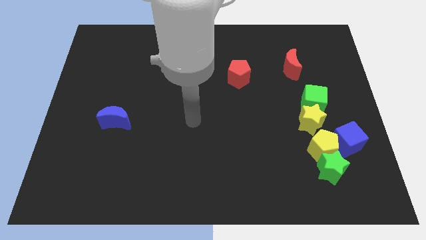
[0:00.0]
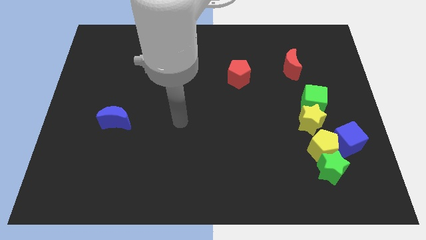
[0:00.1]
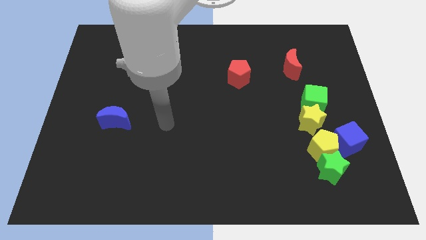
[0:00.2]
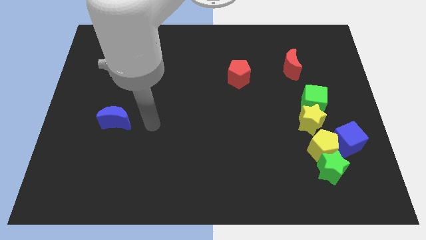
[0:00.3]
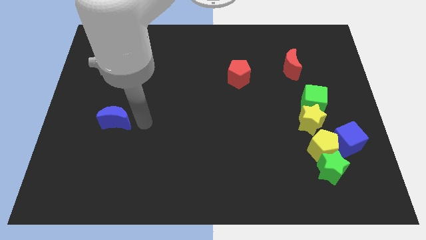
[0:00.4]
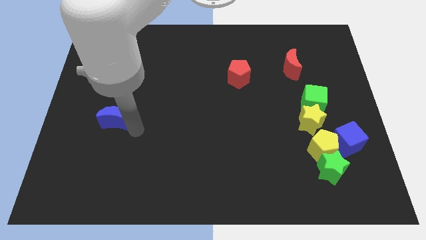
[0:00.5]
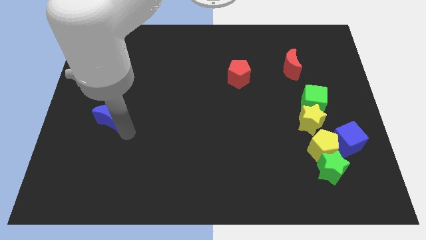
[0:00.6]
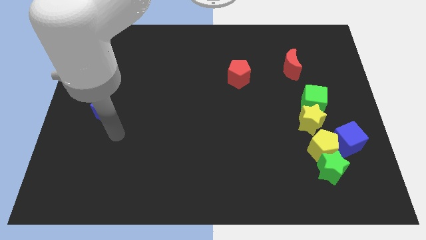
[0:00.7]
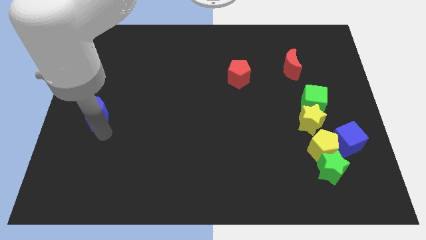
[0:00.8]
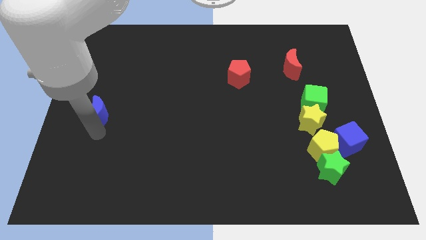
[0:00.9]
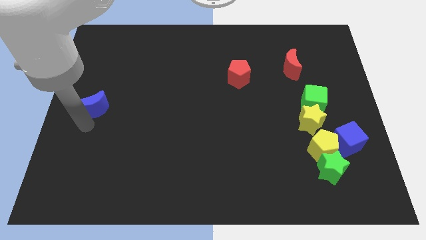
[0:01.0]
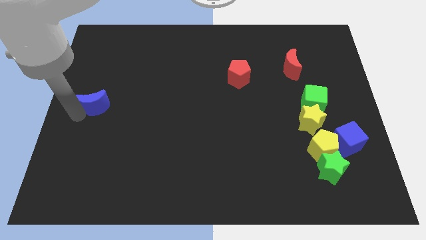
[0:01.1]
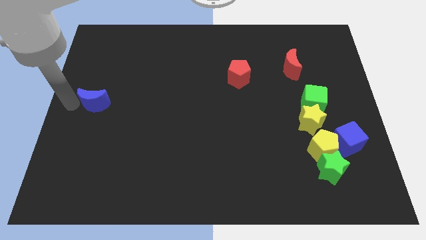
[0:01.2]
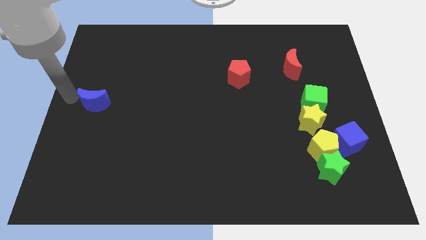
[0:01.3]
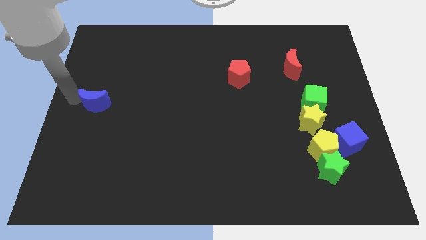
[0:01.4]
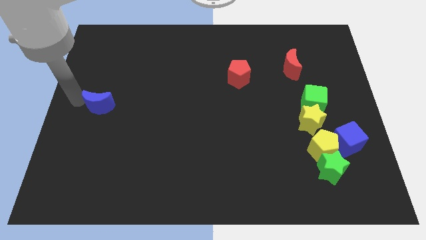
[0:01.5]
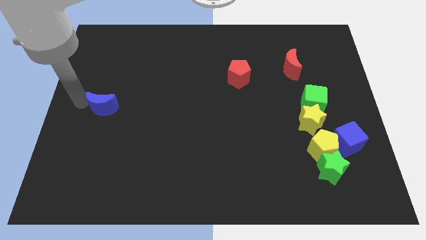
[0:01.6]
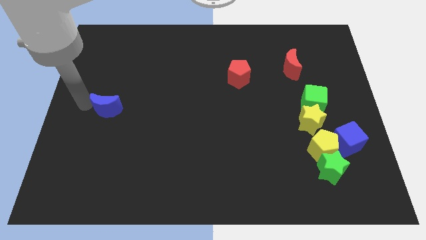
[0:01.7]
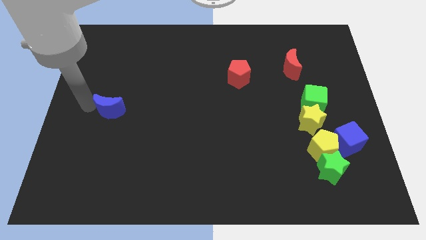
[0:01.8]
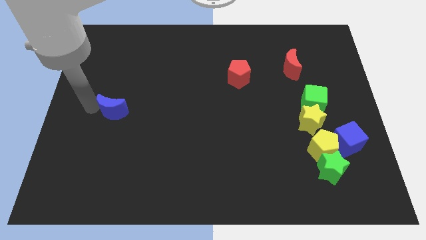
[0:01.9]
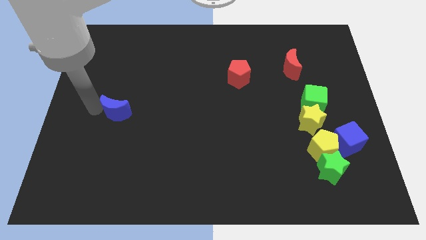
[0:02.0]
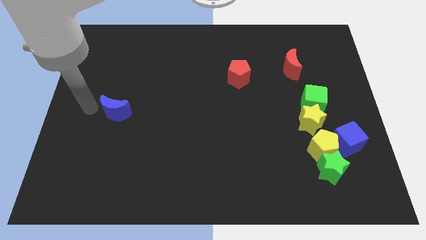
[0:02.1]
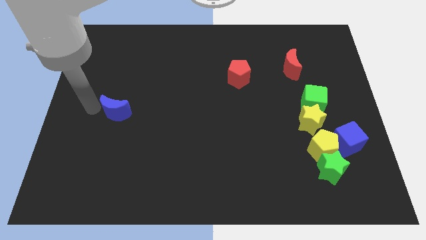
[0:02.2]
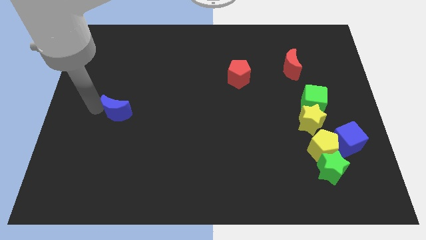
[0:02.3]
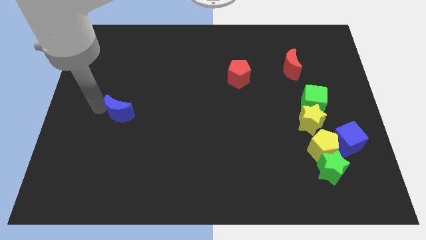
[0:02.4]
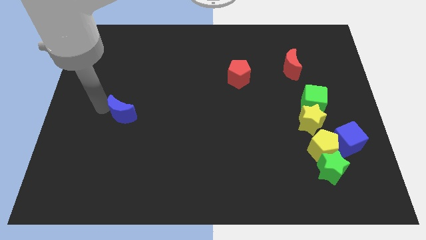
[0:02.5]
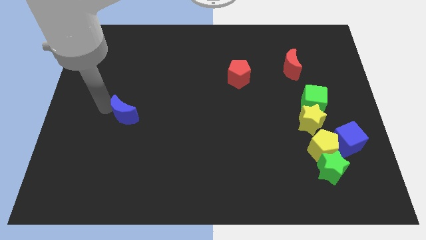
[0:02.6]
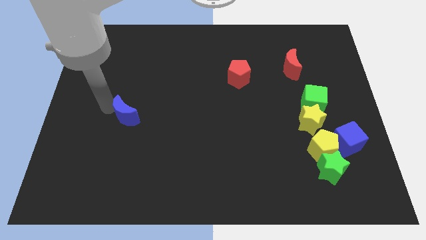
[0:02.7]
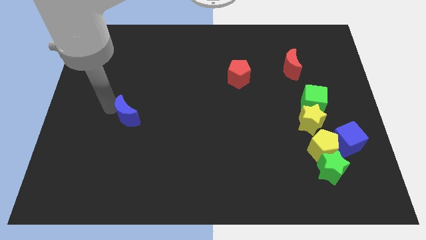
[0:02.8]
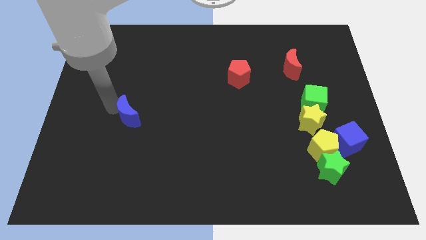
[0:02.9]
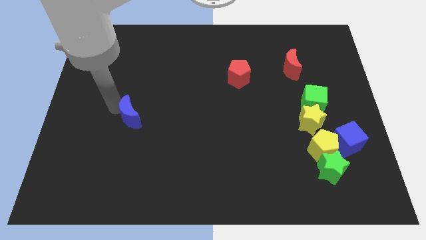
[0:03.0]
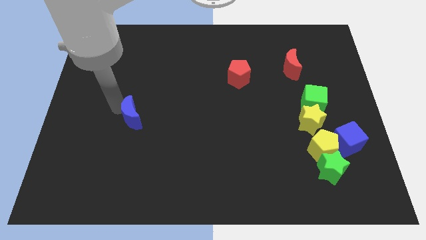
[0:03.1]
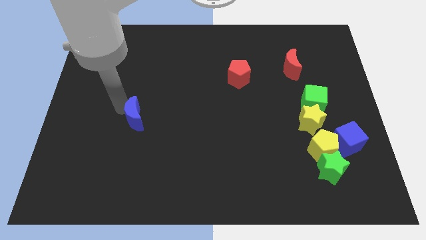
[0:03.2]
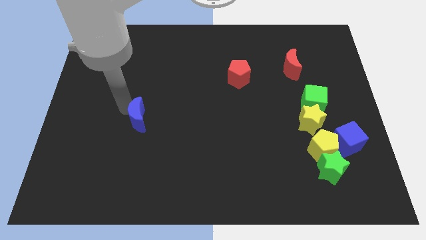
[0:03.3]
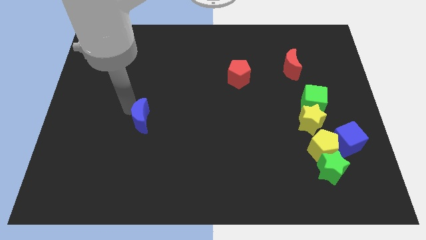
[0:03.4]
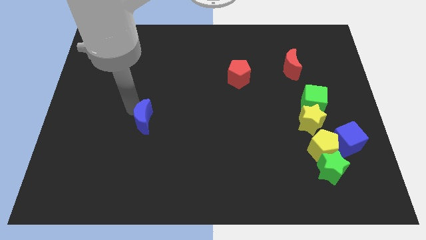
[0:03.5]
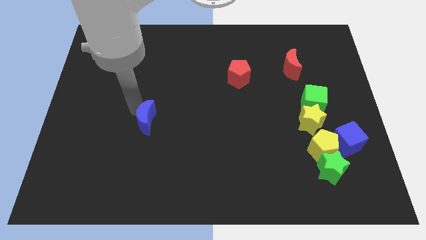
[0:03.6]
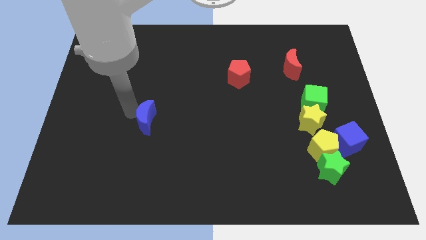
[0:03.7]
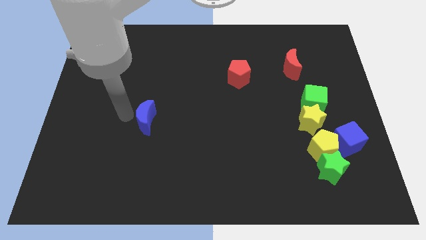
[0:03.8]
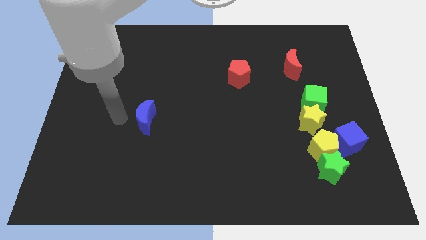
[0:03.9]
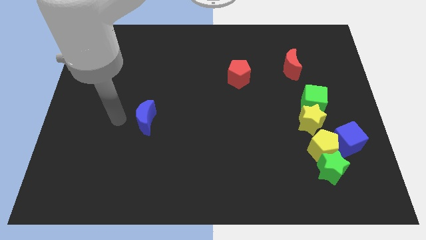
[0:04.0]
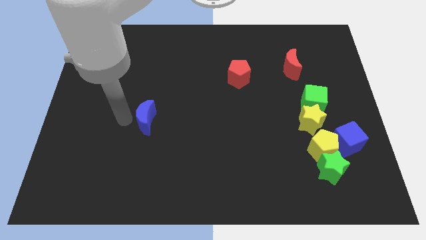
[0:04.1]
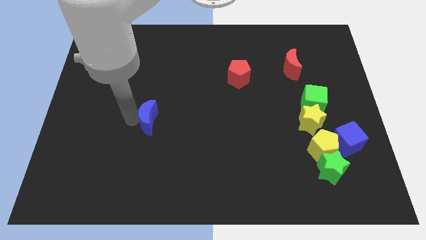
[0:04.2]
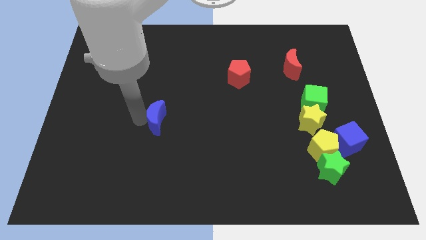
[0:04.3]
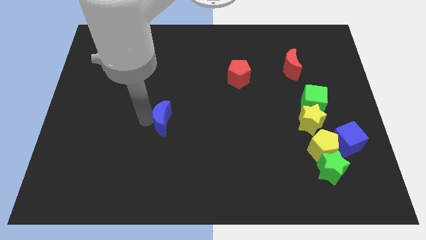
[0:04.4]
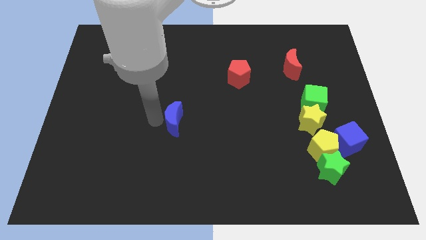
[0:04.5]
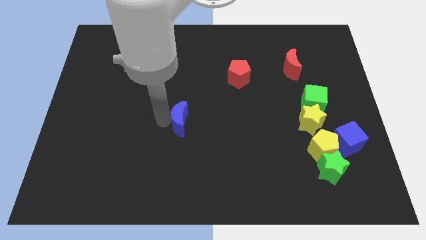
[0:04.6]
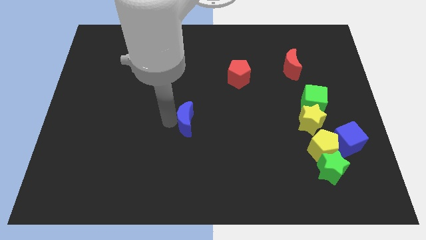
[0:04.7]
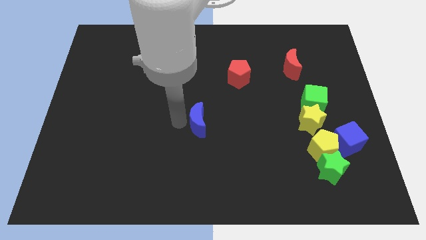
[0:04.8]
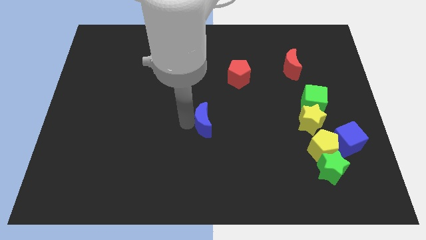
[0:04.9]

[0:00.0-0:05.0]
push the blue moon right

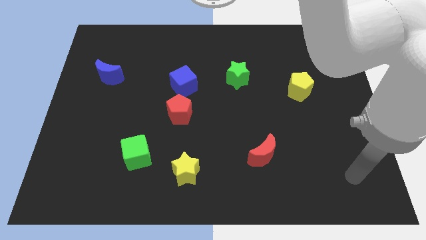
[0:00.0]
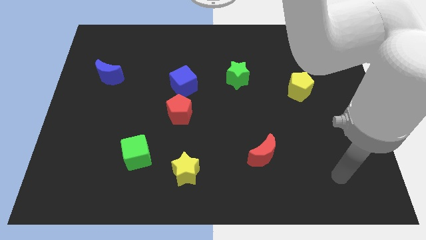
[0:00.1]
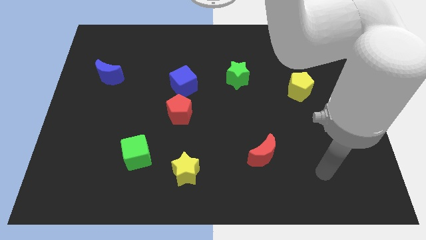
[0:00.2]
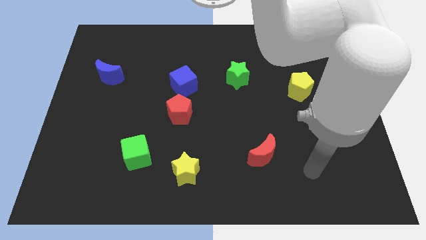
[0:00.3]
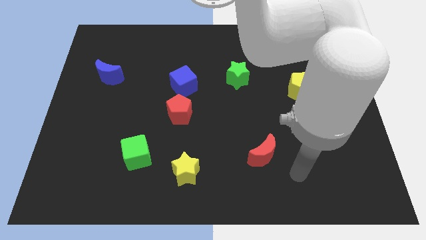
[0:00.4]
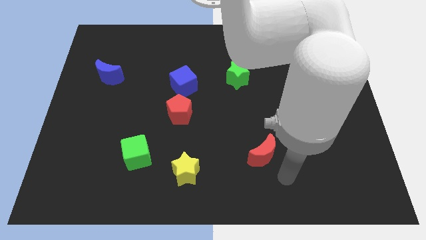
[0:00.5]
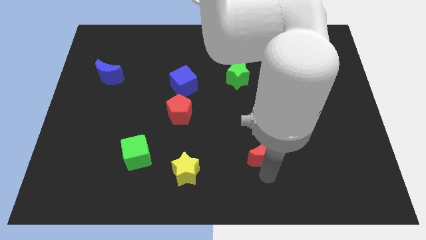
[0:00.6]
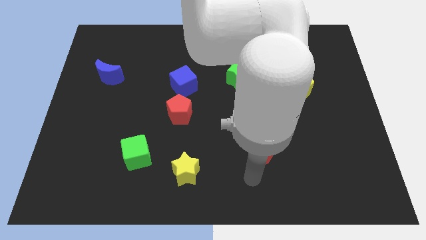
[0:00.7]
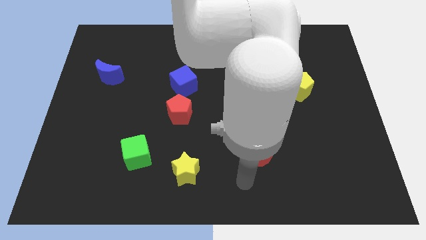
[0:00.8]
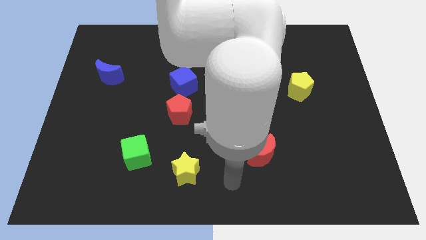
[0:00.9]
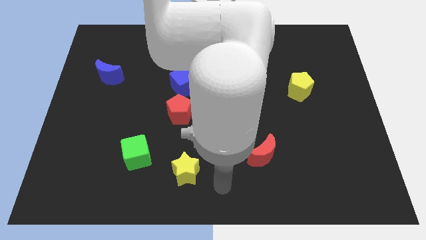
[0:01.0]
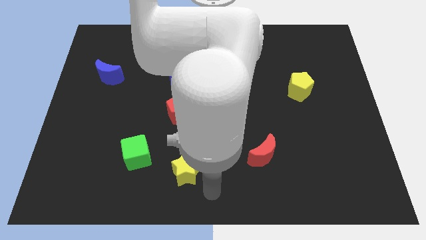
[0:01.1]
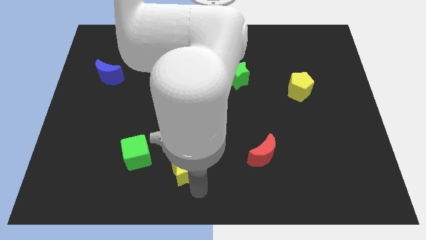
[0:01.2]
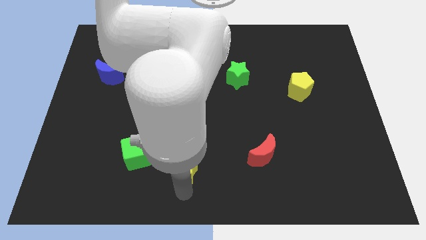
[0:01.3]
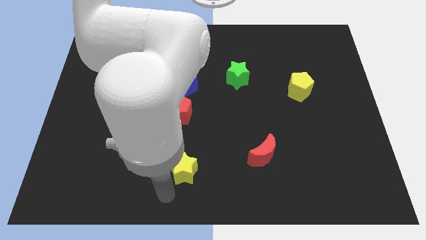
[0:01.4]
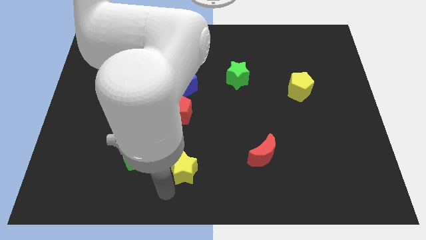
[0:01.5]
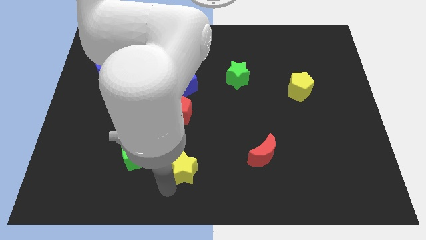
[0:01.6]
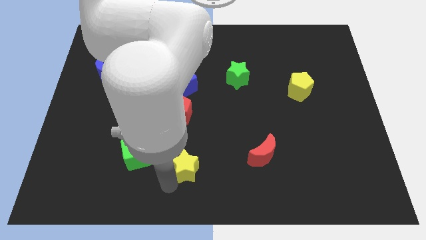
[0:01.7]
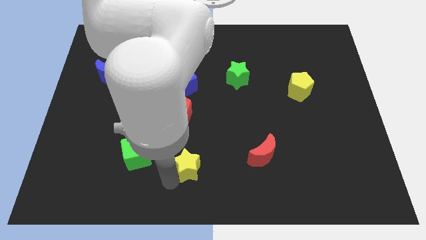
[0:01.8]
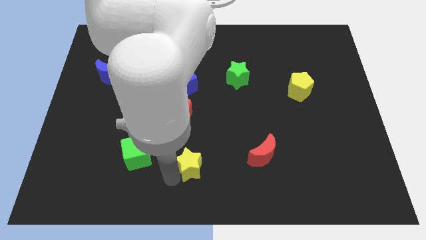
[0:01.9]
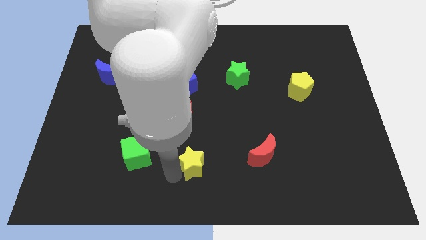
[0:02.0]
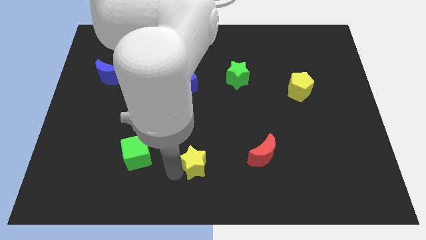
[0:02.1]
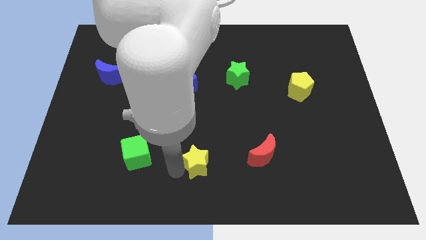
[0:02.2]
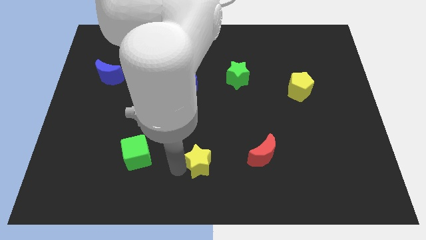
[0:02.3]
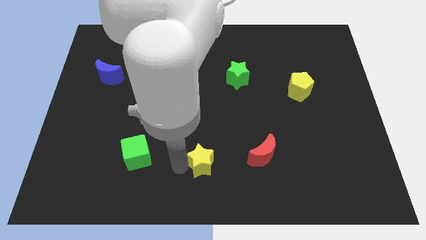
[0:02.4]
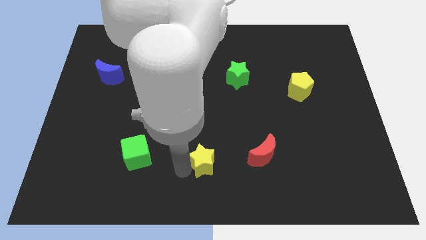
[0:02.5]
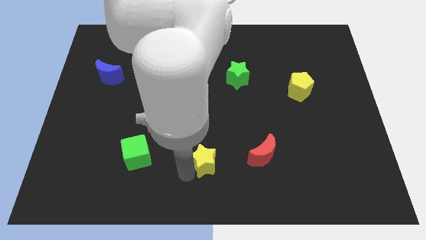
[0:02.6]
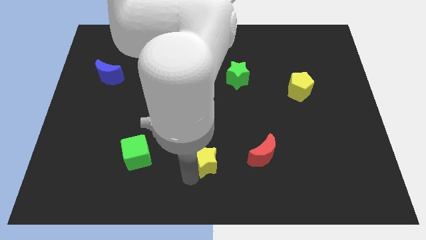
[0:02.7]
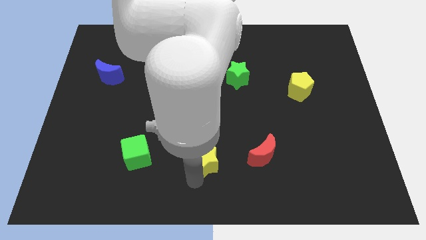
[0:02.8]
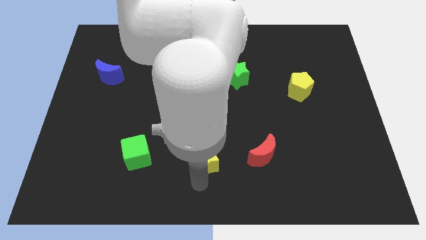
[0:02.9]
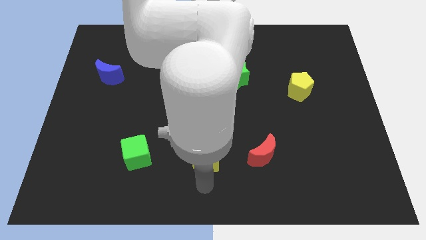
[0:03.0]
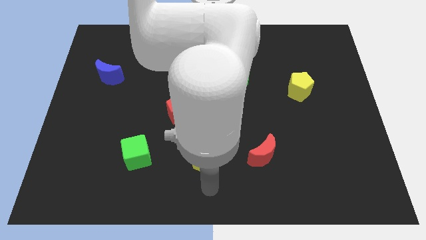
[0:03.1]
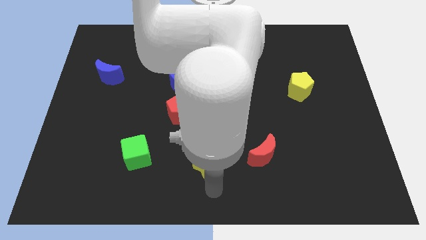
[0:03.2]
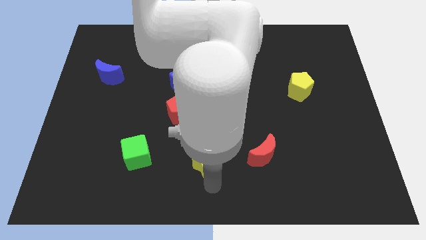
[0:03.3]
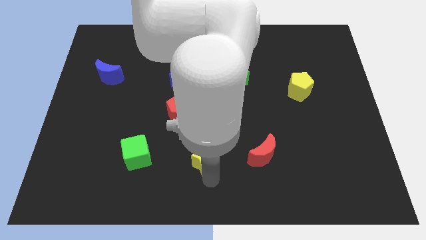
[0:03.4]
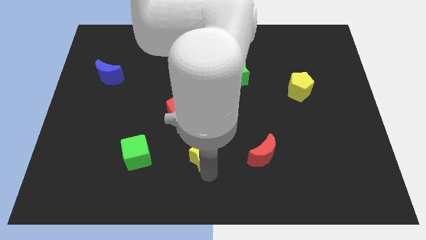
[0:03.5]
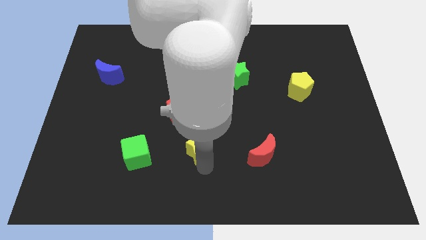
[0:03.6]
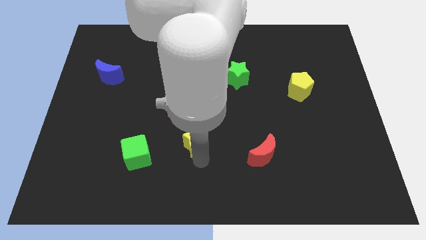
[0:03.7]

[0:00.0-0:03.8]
slide the yellow star slightly up
